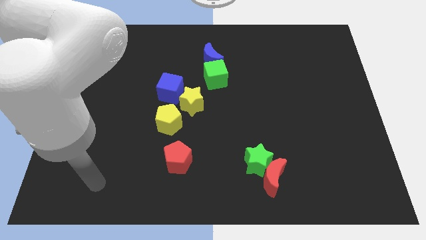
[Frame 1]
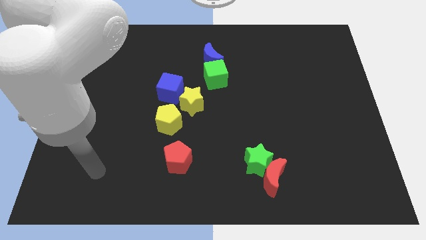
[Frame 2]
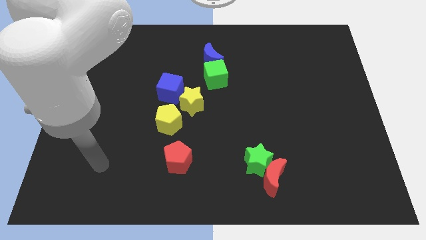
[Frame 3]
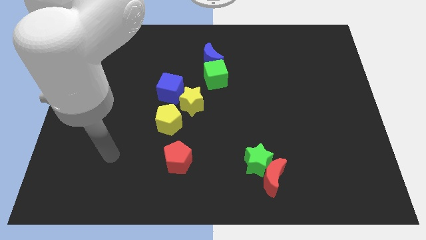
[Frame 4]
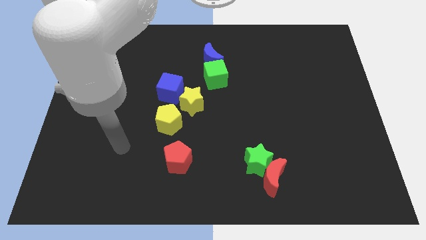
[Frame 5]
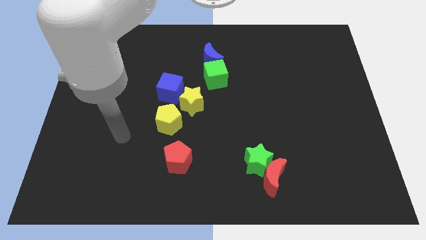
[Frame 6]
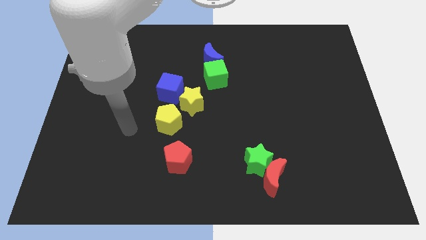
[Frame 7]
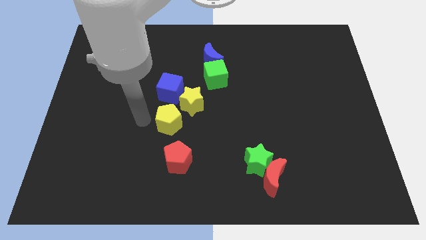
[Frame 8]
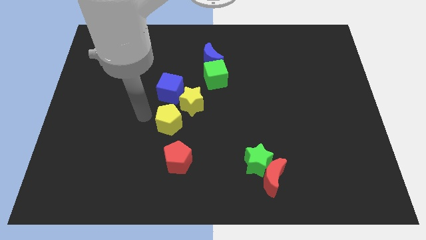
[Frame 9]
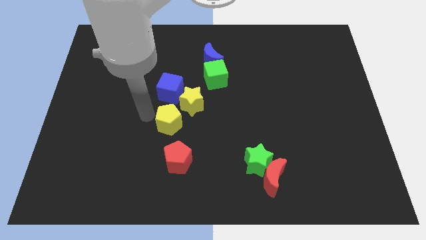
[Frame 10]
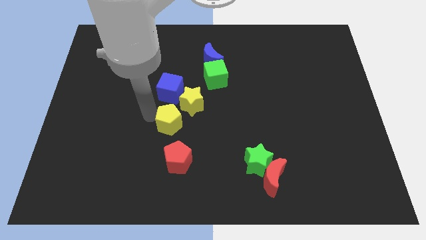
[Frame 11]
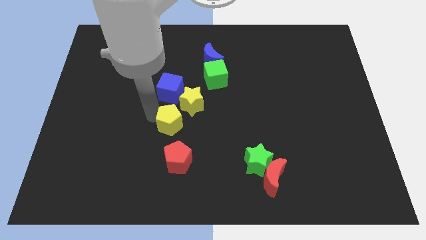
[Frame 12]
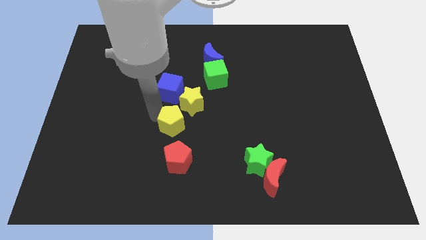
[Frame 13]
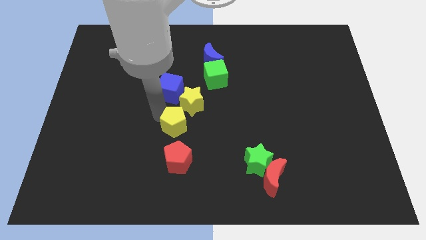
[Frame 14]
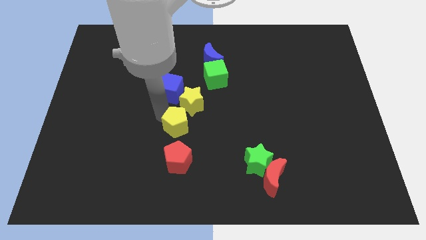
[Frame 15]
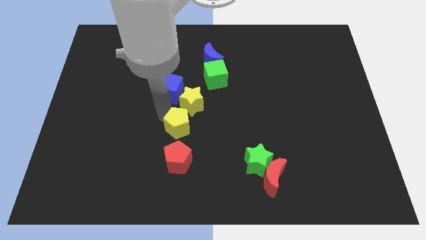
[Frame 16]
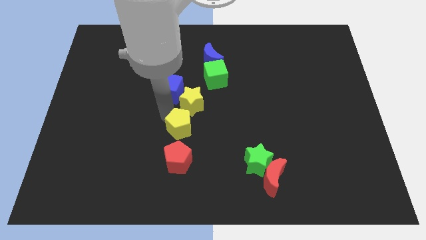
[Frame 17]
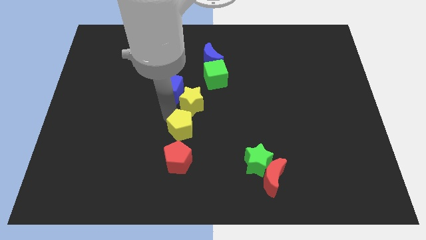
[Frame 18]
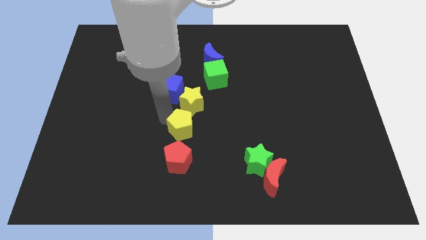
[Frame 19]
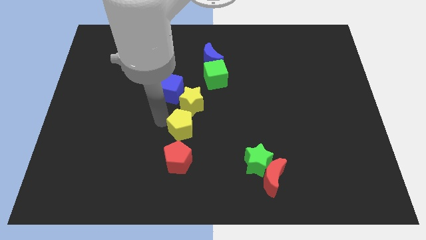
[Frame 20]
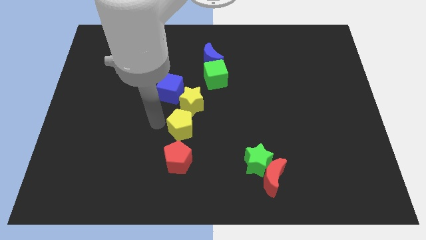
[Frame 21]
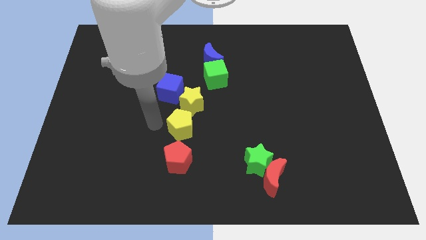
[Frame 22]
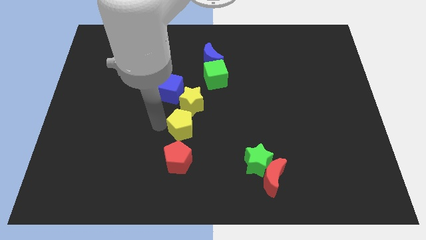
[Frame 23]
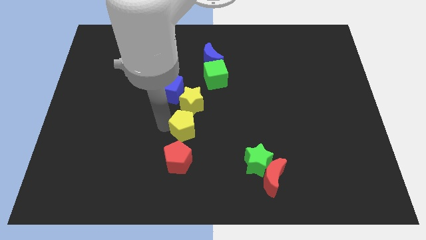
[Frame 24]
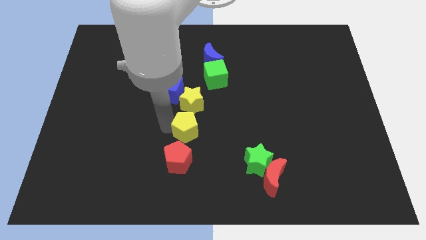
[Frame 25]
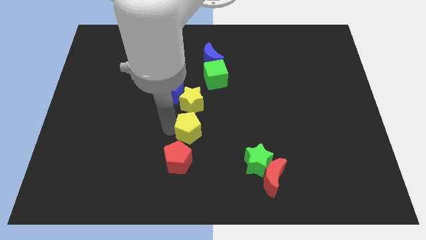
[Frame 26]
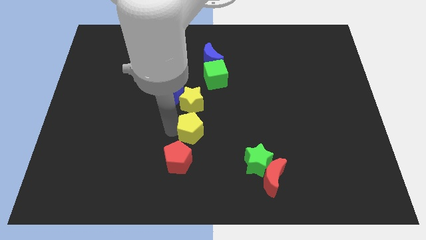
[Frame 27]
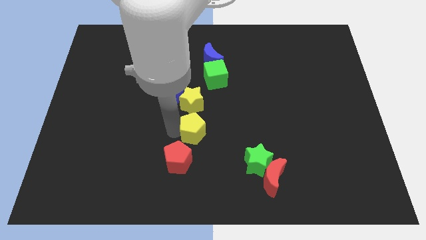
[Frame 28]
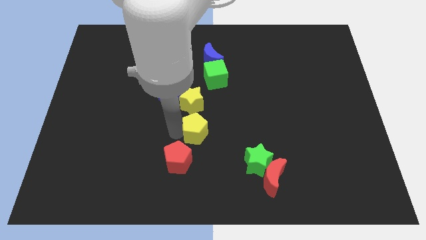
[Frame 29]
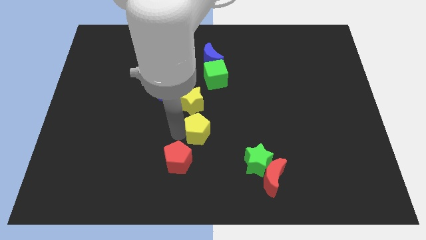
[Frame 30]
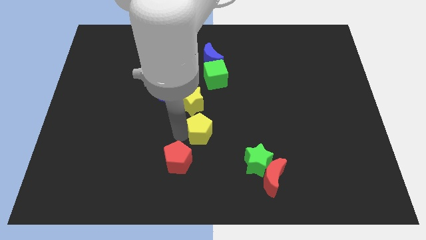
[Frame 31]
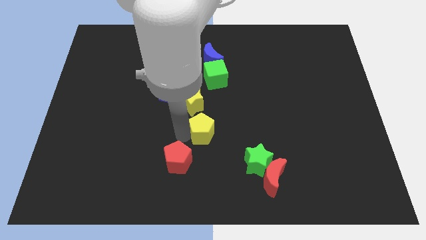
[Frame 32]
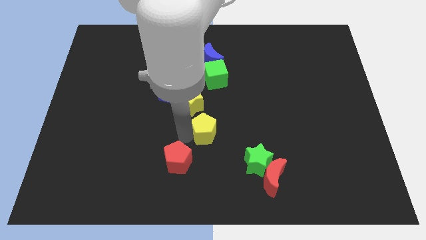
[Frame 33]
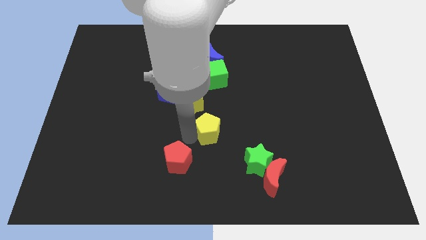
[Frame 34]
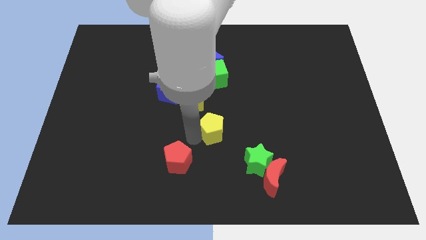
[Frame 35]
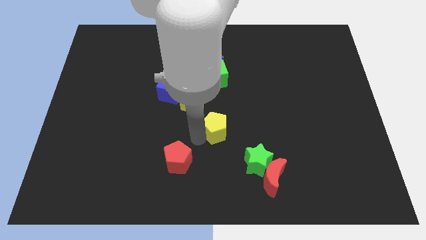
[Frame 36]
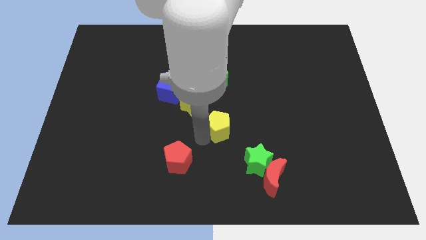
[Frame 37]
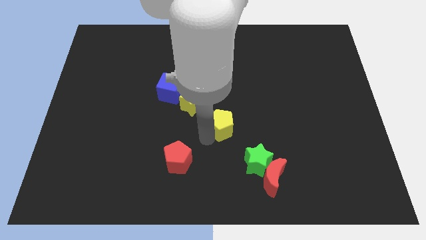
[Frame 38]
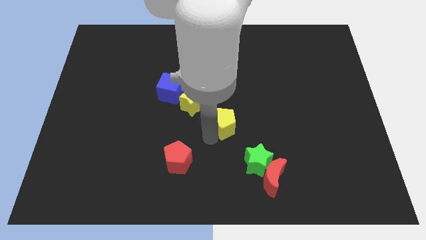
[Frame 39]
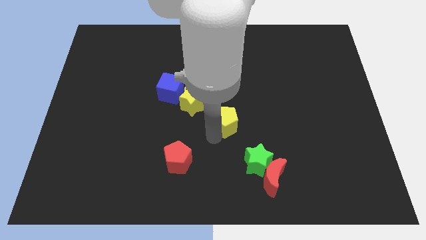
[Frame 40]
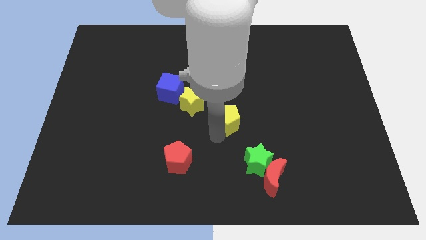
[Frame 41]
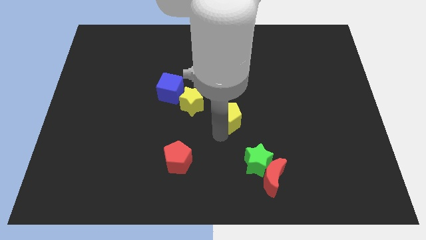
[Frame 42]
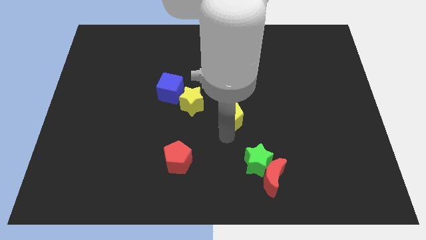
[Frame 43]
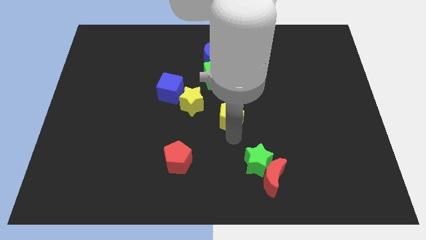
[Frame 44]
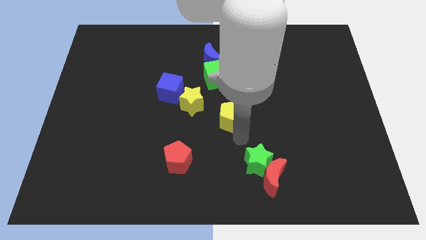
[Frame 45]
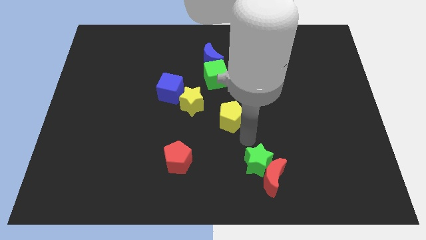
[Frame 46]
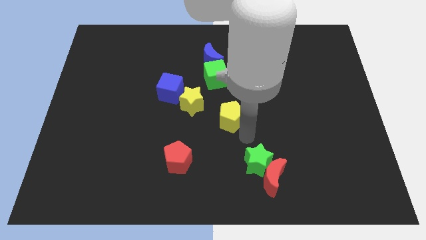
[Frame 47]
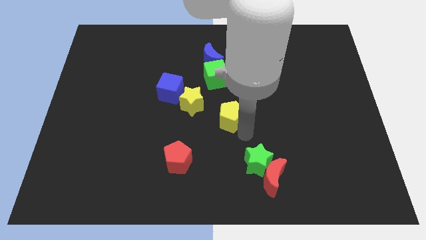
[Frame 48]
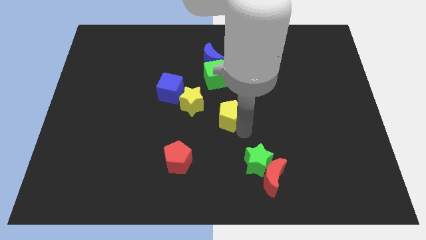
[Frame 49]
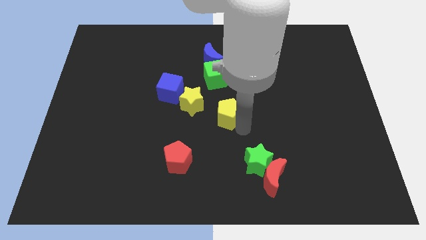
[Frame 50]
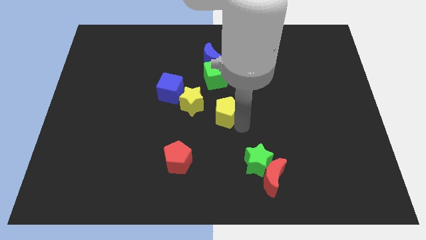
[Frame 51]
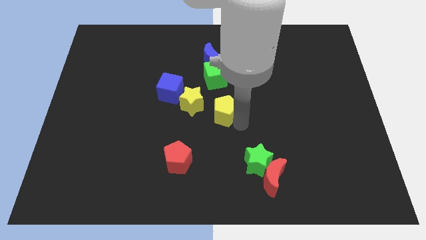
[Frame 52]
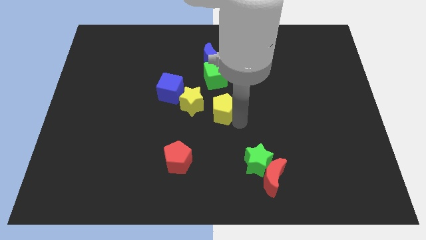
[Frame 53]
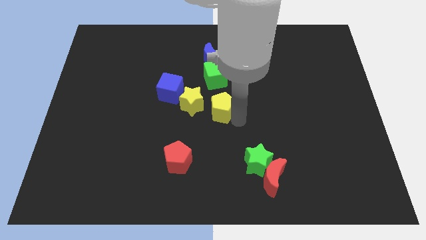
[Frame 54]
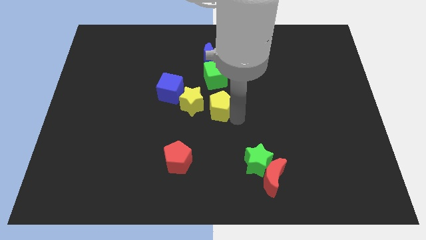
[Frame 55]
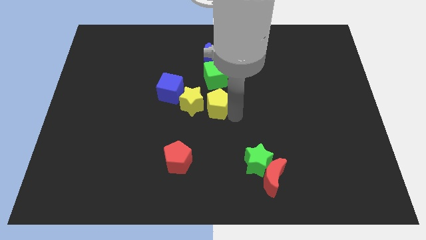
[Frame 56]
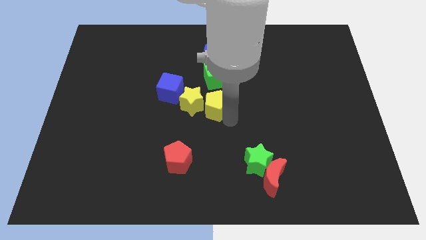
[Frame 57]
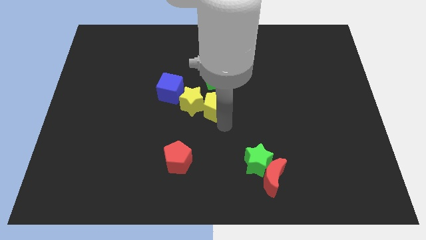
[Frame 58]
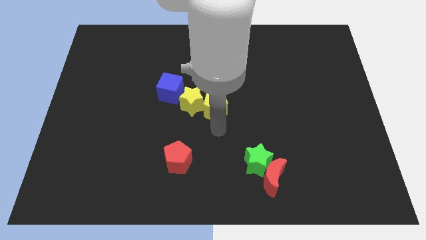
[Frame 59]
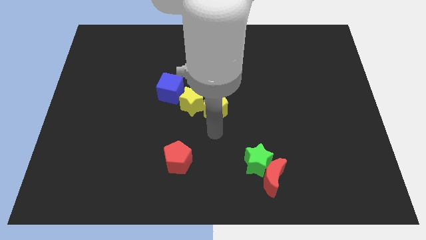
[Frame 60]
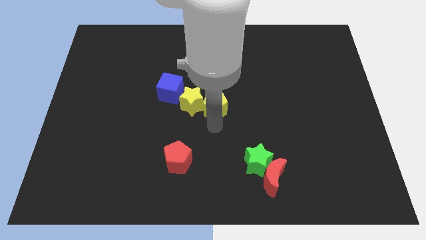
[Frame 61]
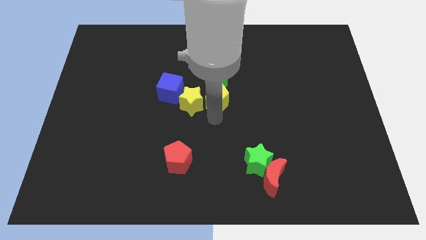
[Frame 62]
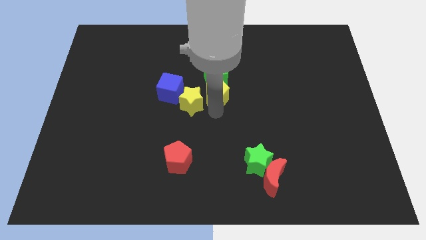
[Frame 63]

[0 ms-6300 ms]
move the yellow pentagon next to the green cube
